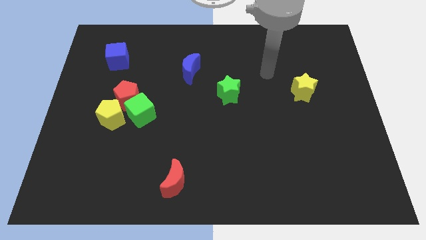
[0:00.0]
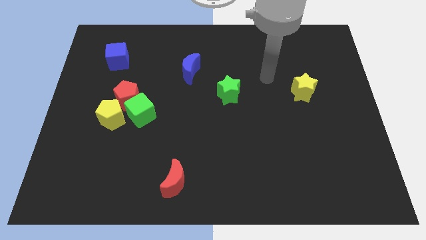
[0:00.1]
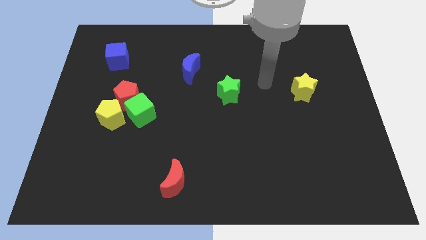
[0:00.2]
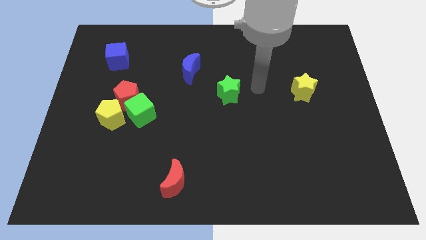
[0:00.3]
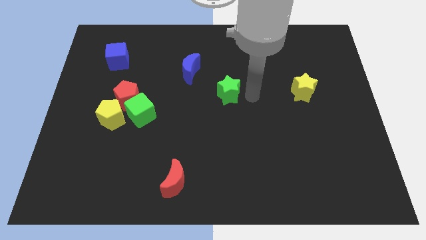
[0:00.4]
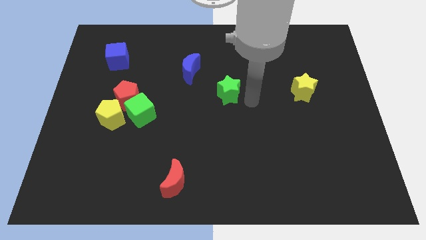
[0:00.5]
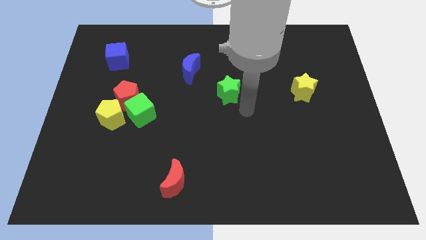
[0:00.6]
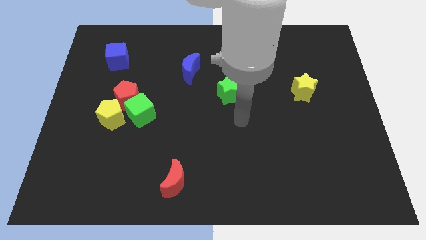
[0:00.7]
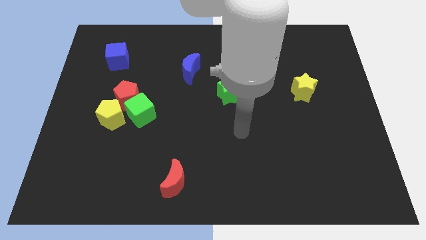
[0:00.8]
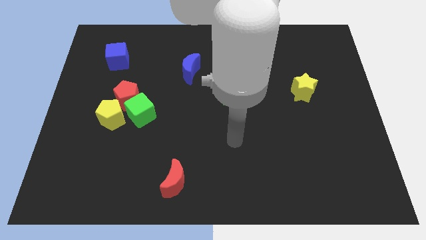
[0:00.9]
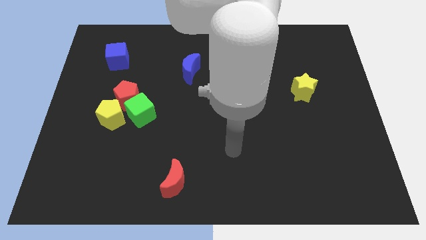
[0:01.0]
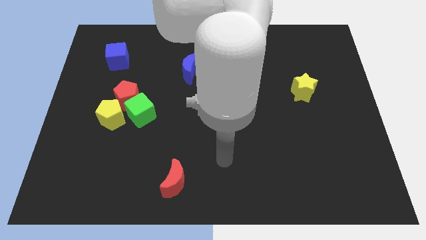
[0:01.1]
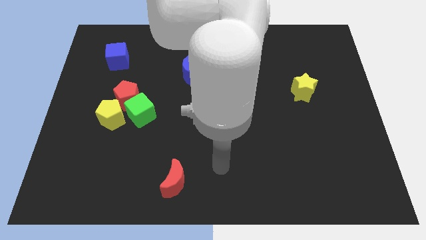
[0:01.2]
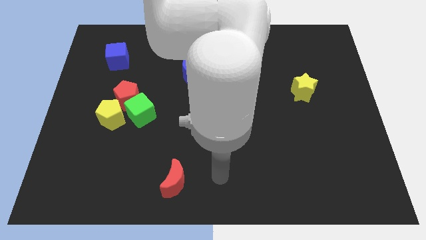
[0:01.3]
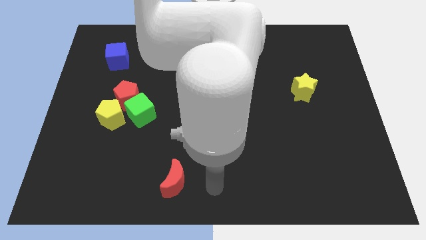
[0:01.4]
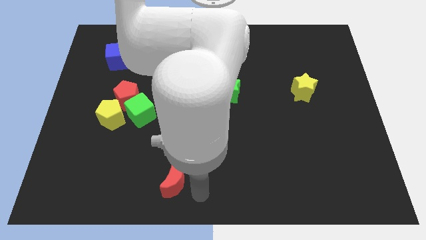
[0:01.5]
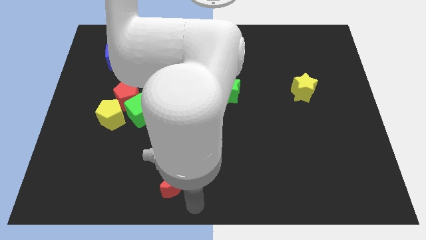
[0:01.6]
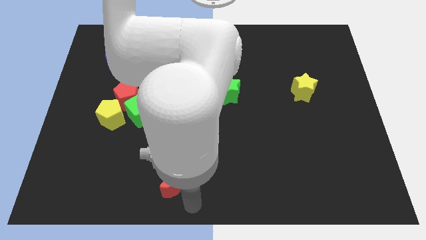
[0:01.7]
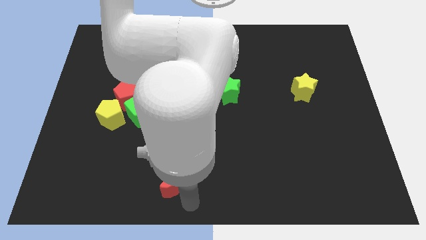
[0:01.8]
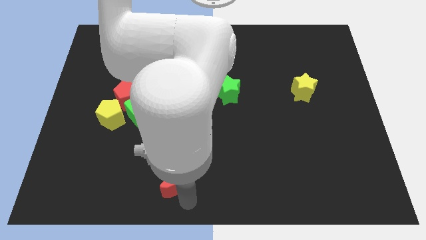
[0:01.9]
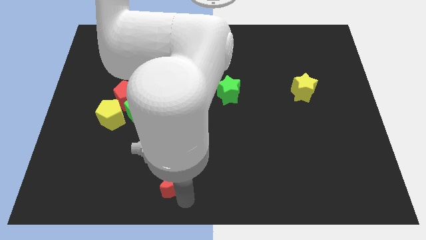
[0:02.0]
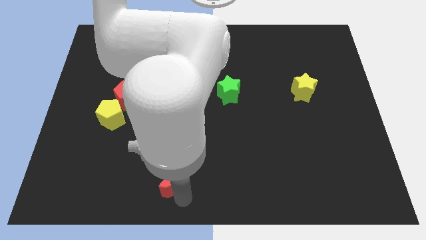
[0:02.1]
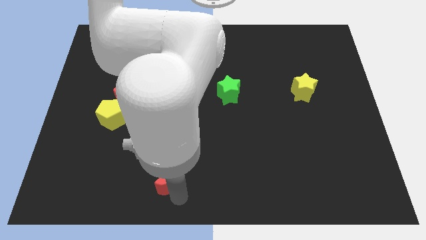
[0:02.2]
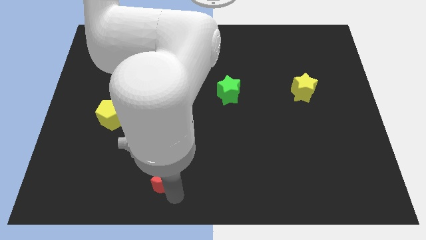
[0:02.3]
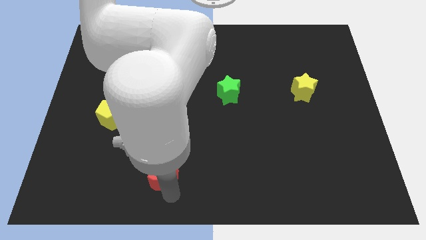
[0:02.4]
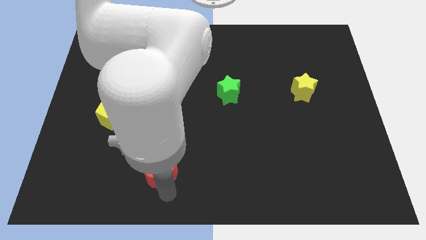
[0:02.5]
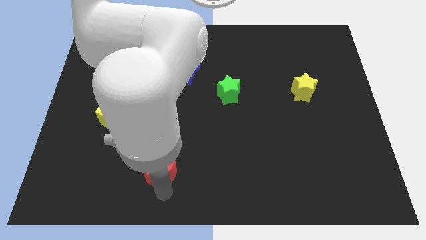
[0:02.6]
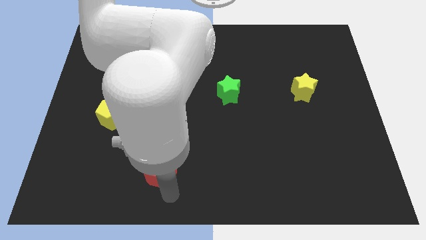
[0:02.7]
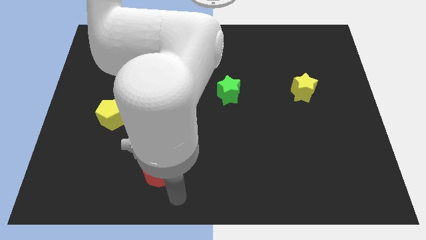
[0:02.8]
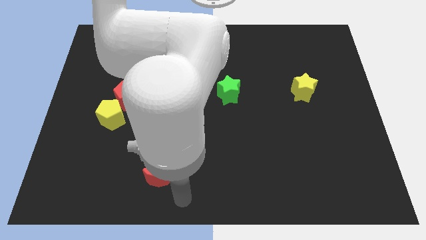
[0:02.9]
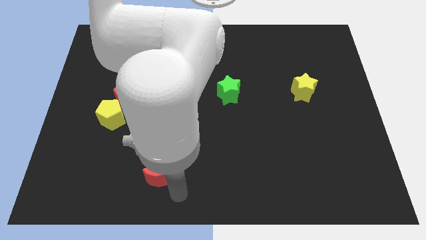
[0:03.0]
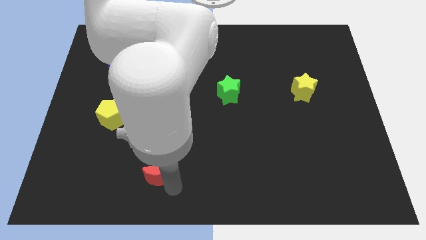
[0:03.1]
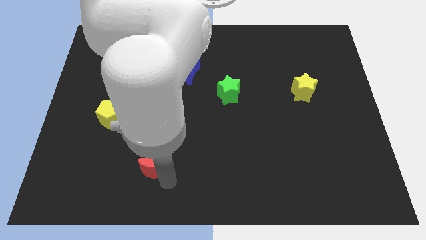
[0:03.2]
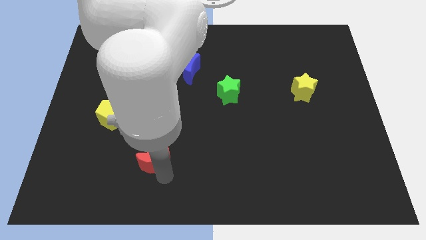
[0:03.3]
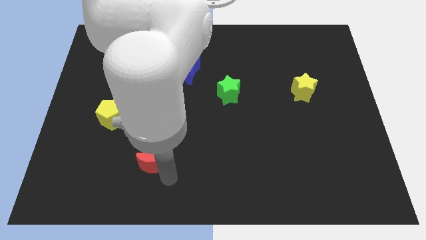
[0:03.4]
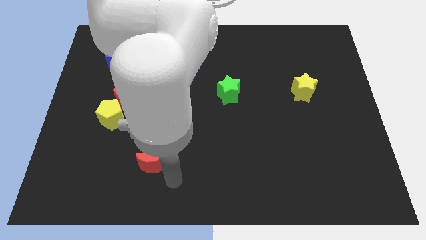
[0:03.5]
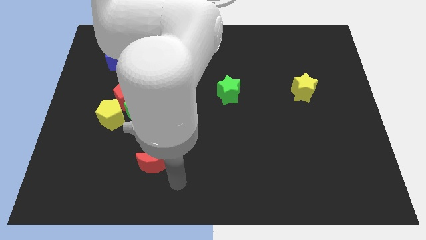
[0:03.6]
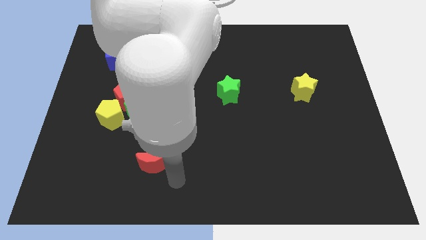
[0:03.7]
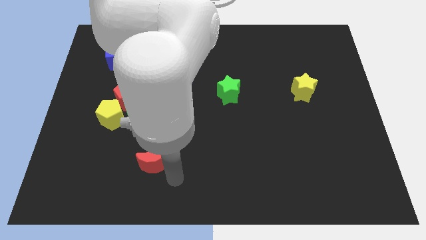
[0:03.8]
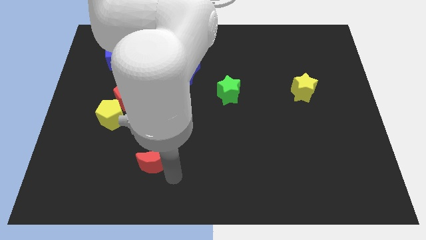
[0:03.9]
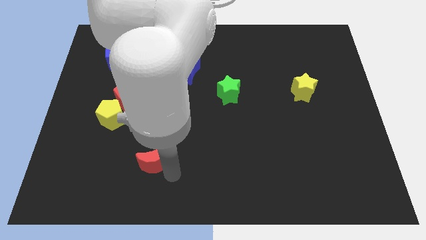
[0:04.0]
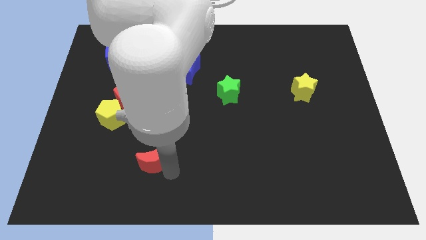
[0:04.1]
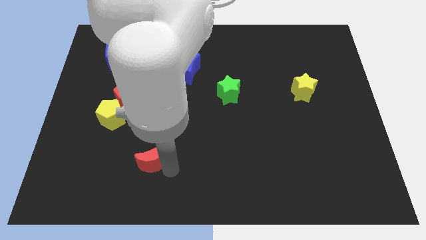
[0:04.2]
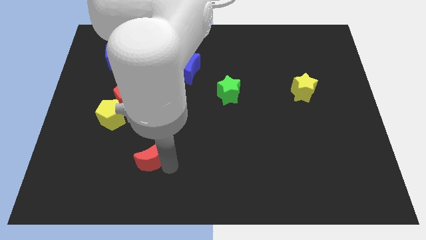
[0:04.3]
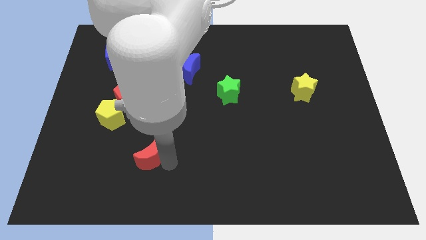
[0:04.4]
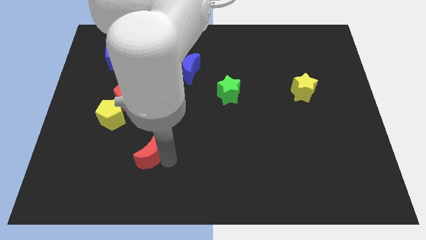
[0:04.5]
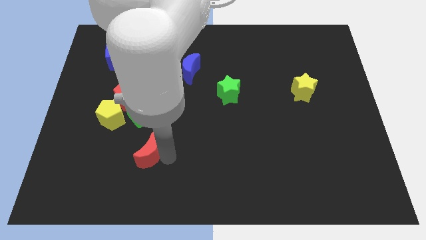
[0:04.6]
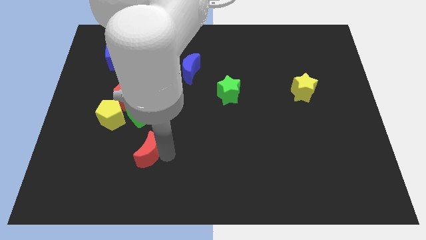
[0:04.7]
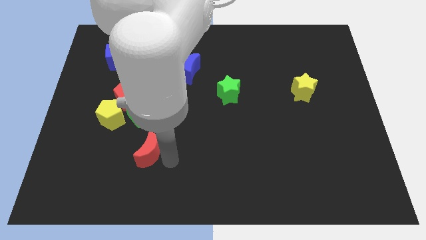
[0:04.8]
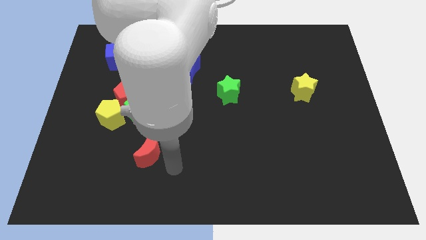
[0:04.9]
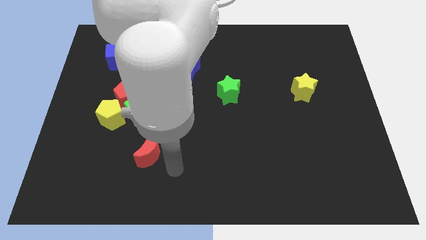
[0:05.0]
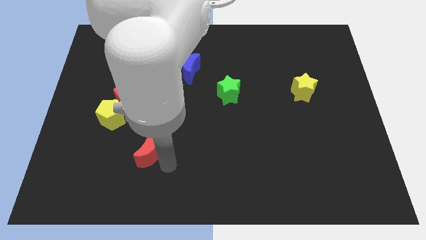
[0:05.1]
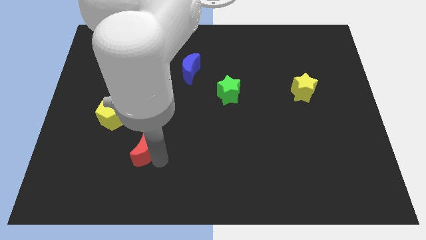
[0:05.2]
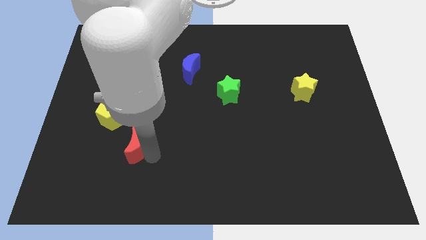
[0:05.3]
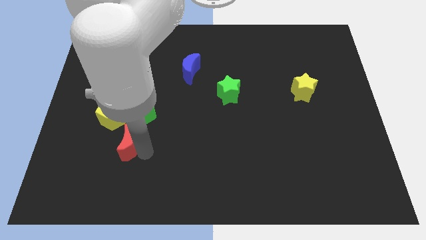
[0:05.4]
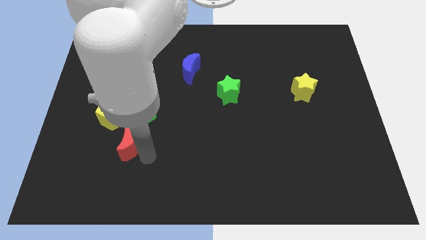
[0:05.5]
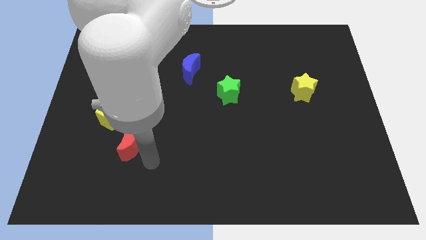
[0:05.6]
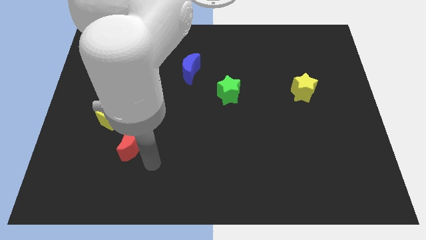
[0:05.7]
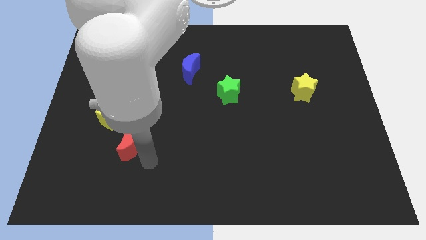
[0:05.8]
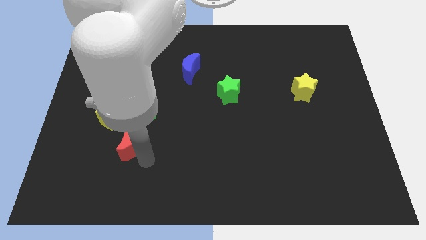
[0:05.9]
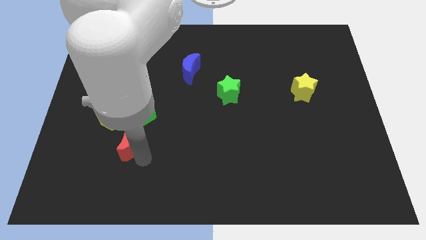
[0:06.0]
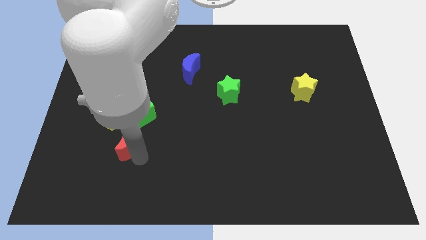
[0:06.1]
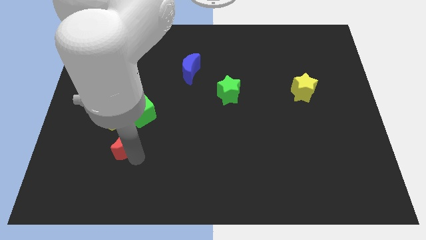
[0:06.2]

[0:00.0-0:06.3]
slide the red moon to the bottom left side of the green cube
